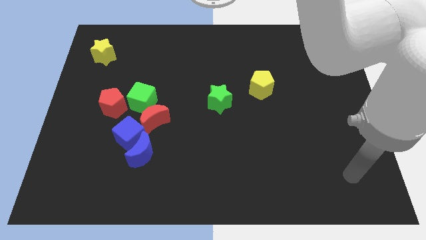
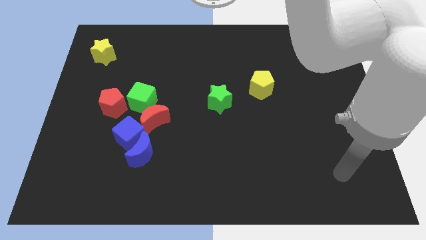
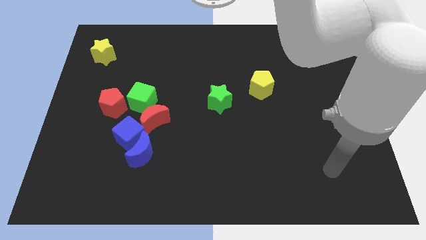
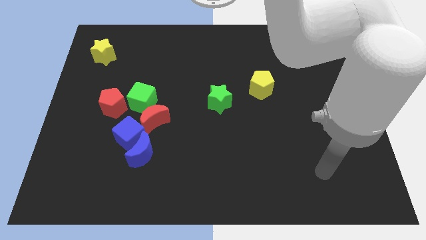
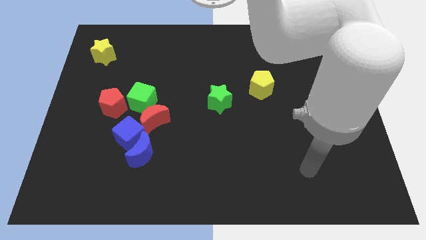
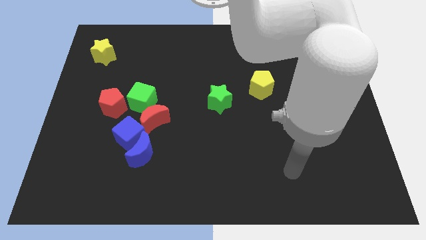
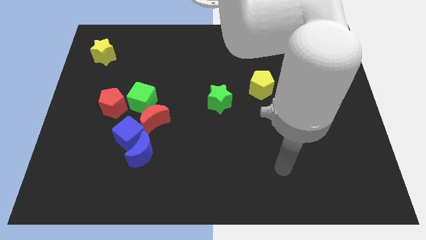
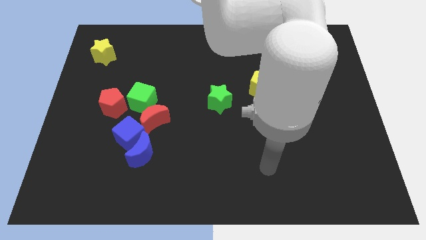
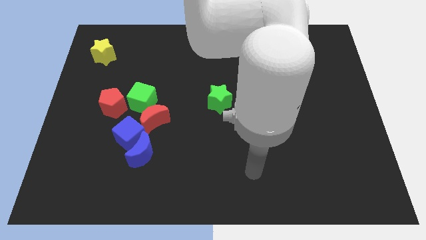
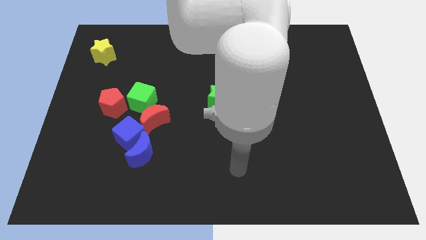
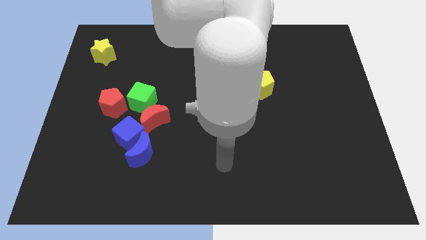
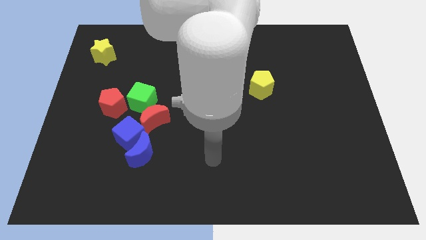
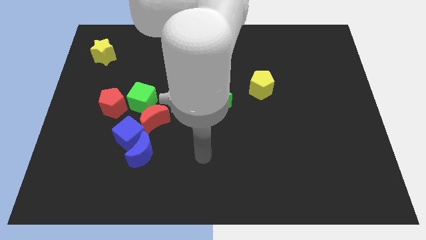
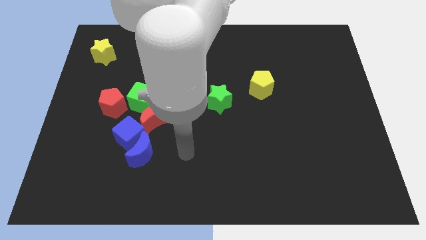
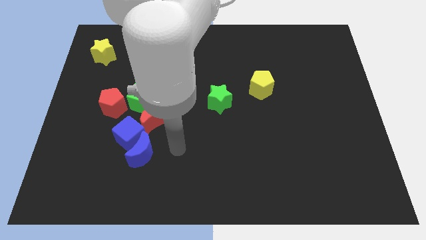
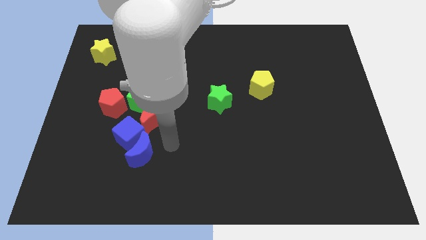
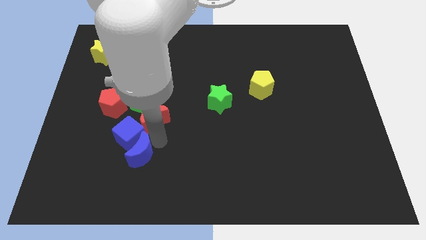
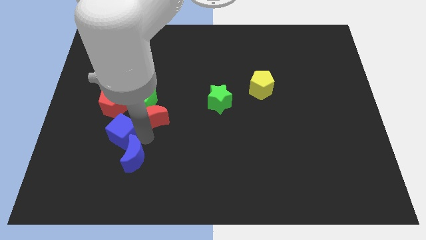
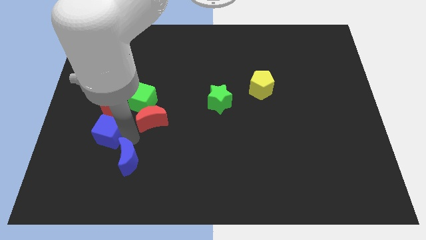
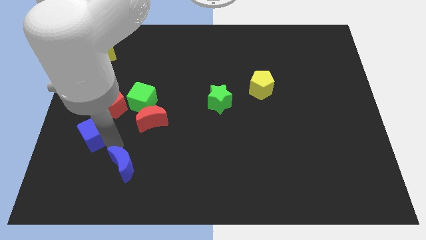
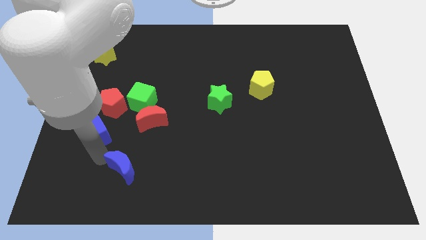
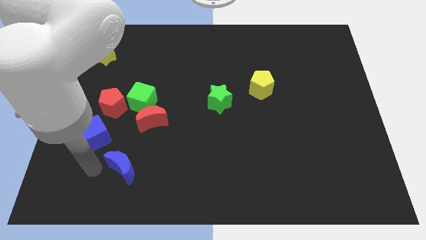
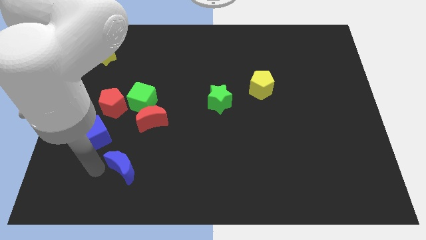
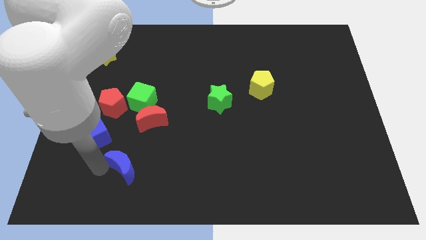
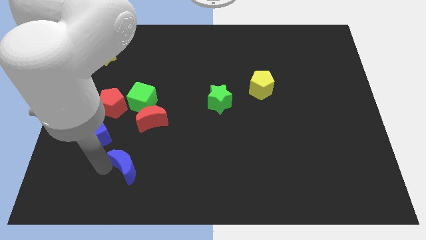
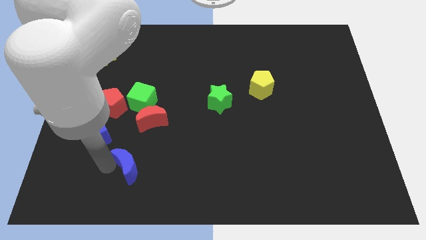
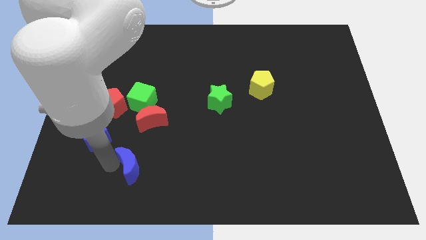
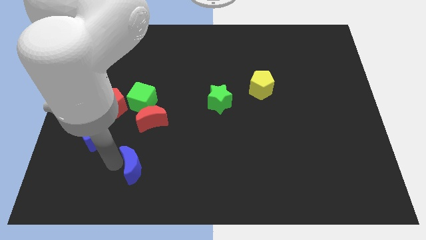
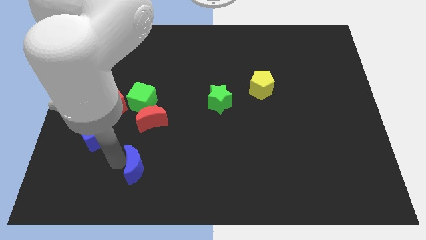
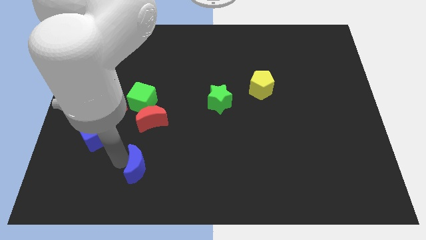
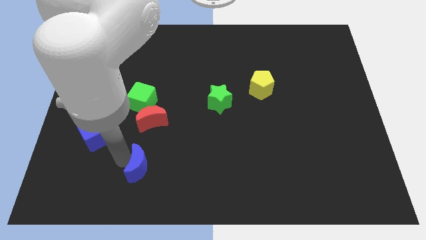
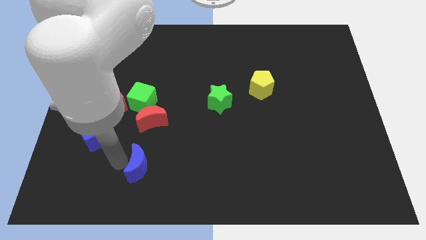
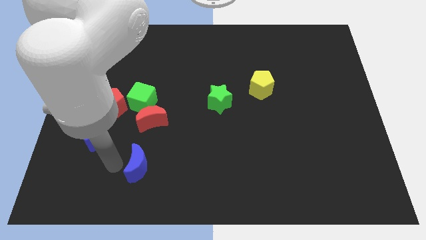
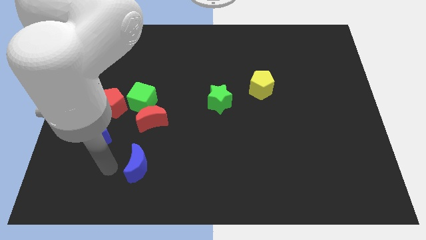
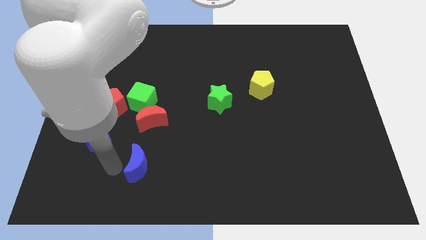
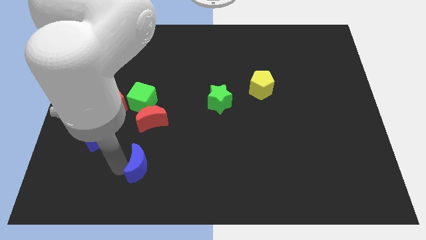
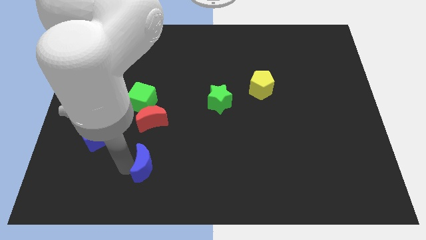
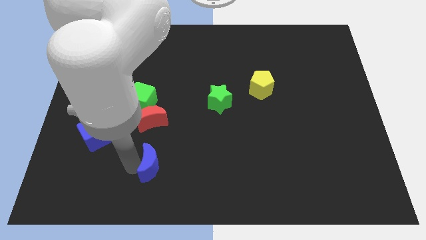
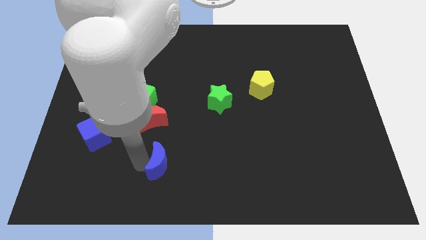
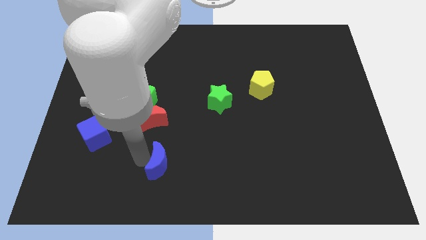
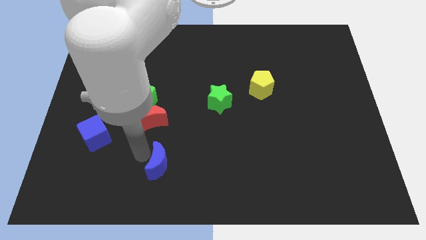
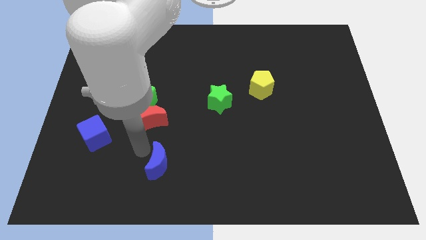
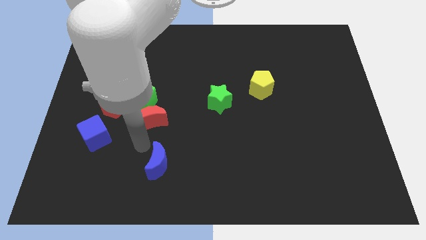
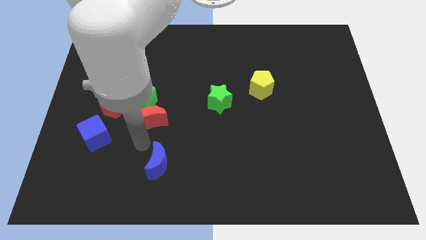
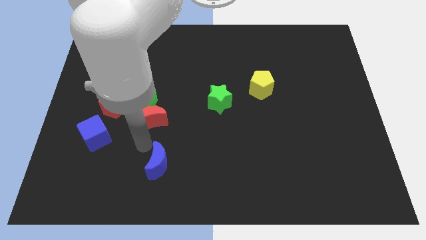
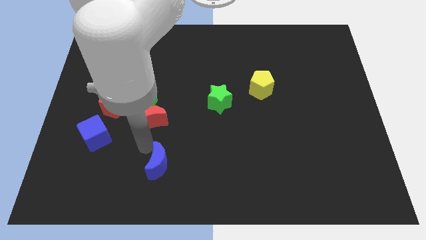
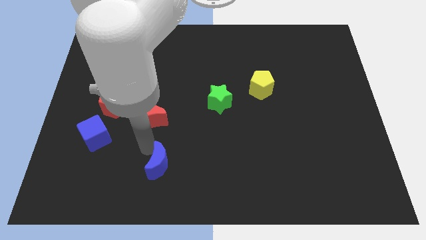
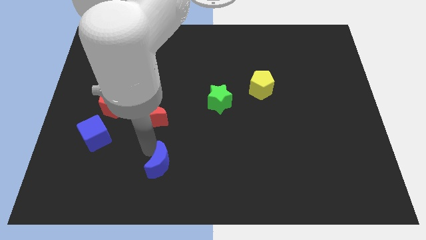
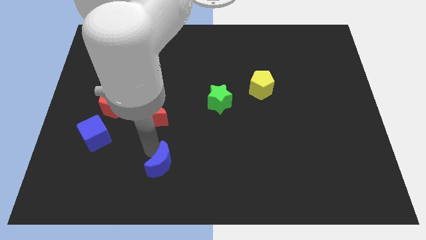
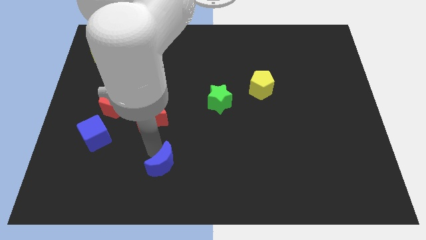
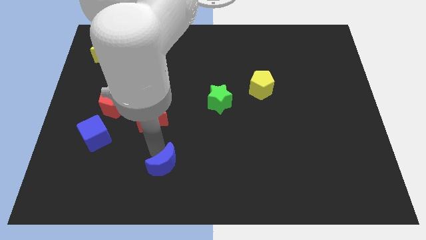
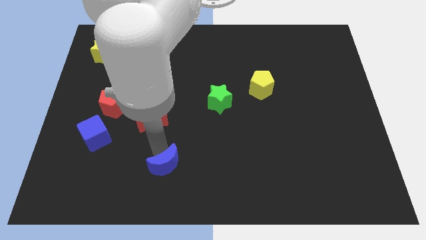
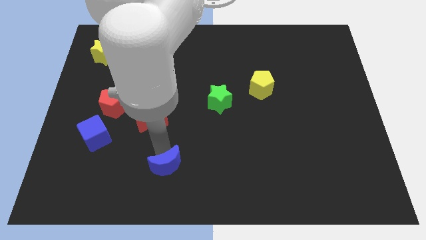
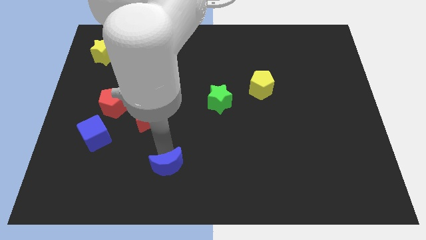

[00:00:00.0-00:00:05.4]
push the blue moon to the bottom

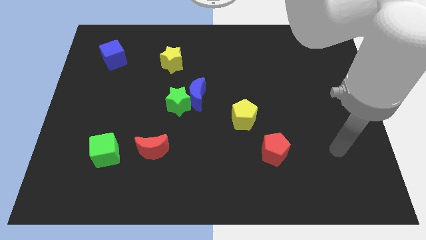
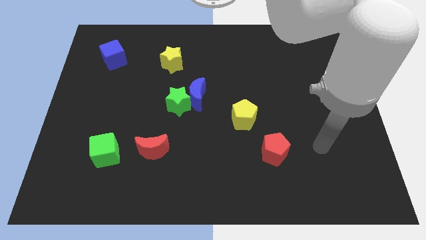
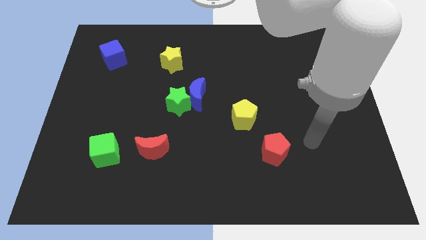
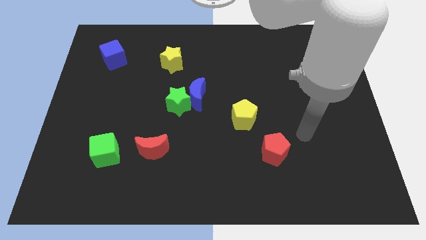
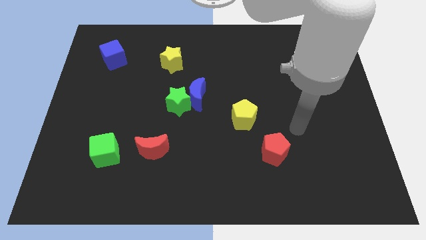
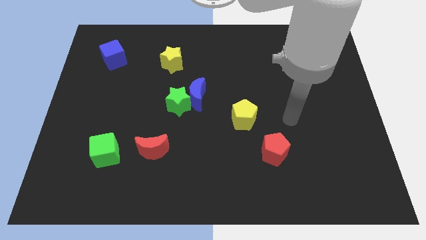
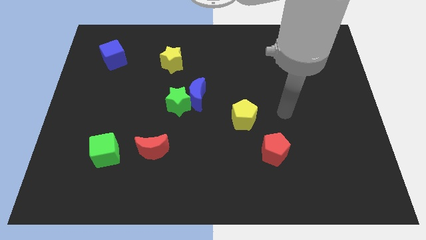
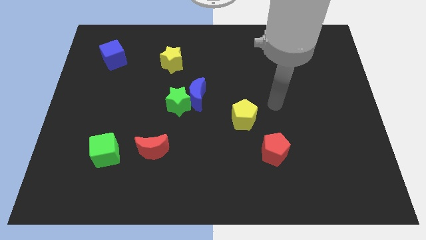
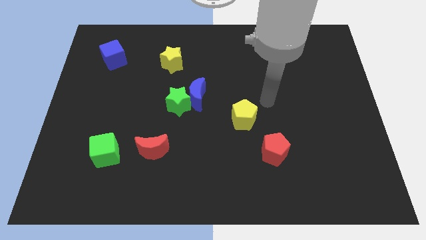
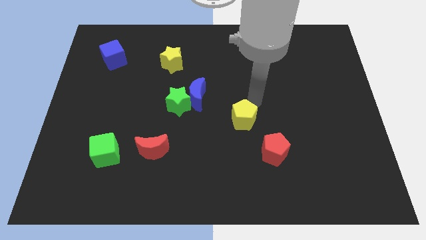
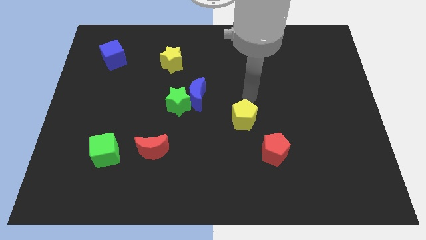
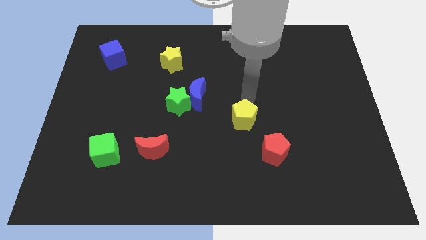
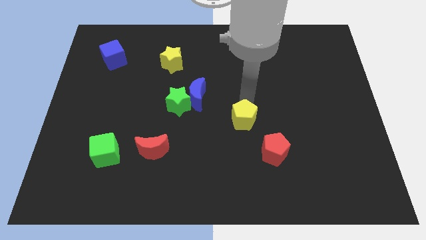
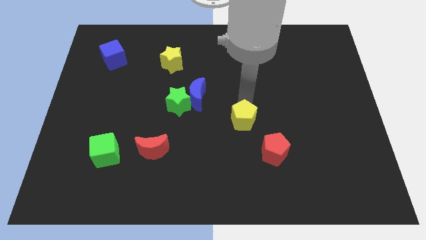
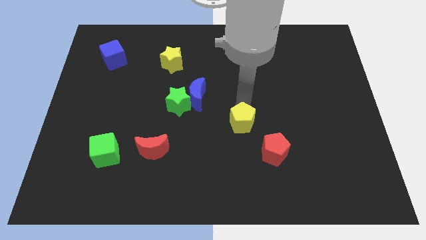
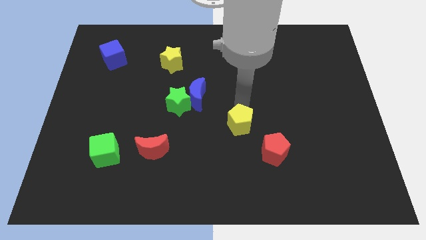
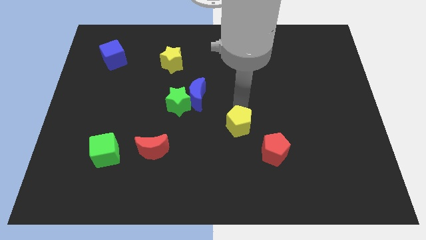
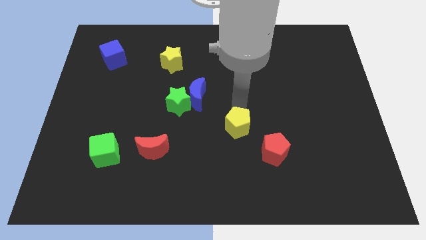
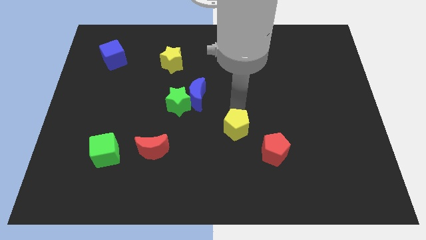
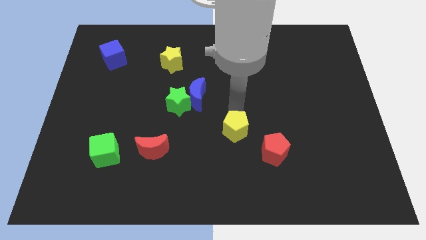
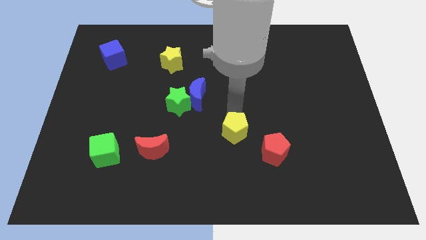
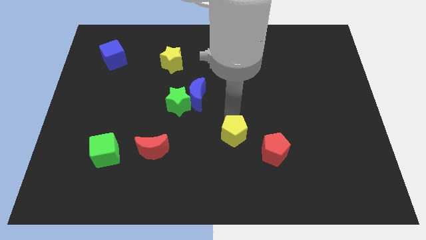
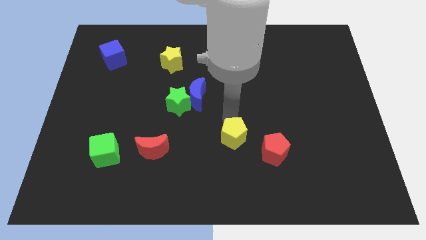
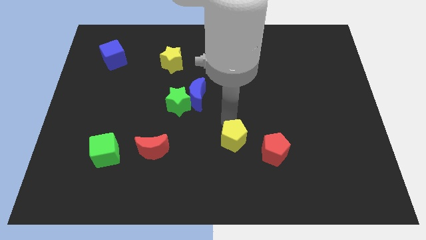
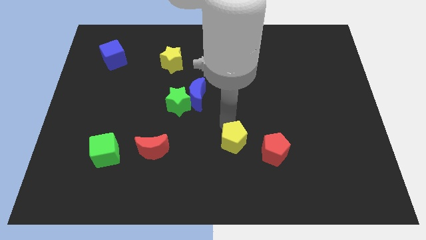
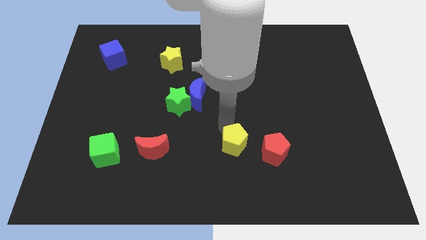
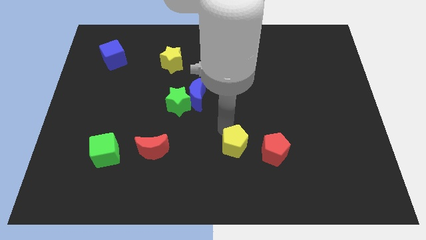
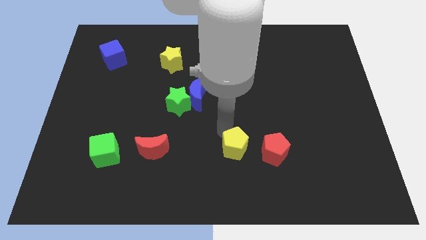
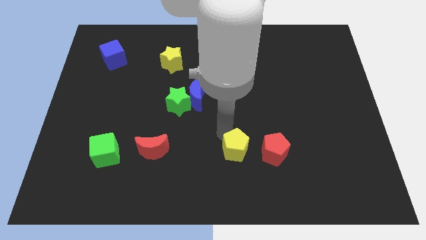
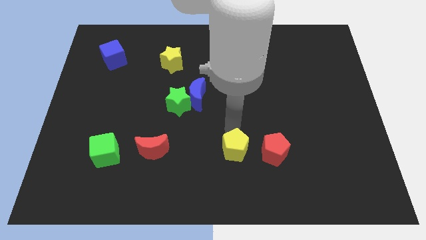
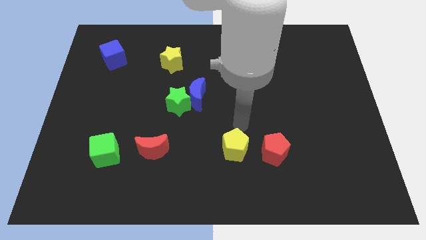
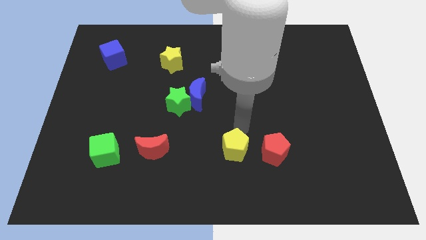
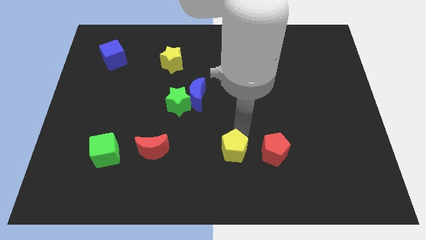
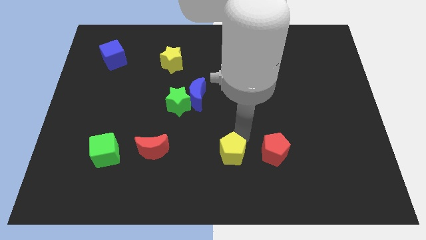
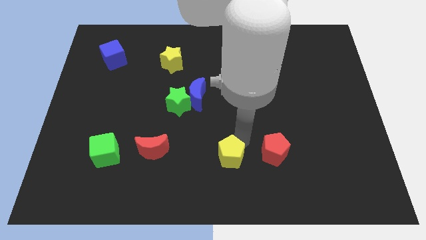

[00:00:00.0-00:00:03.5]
move the yellow pentagon to the bottom side
